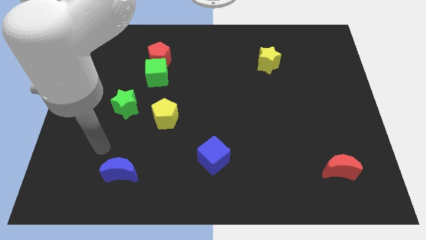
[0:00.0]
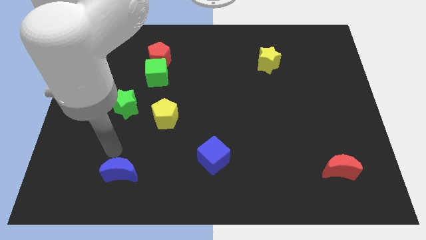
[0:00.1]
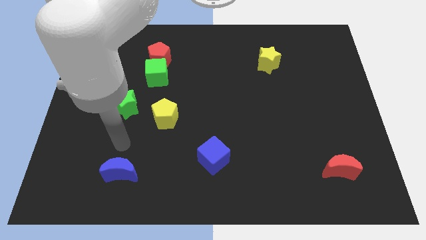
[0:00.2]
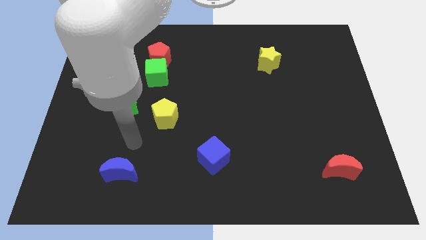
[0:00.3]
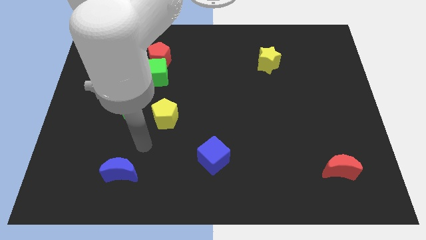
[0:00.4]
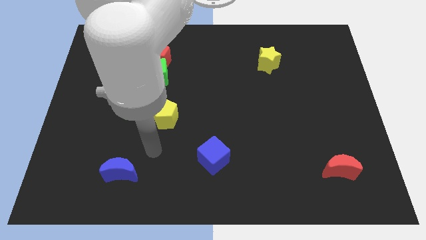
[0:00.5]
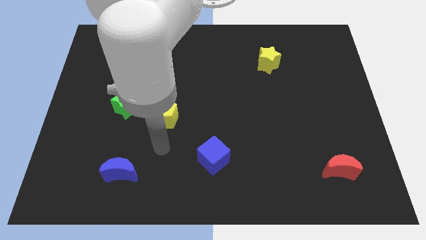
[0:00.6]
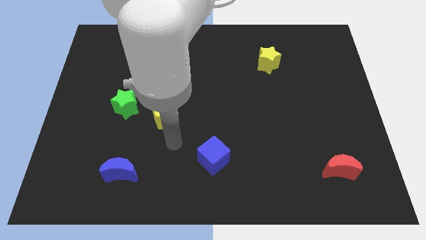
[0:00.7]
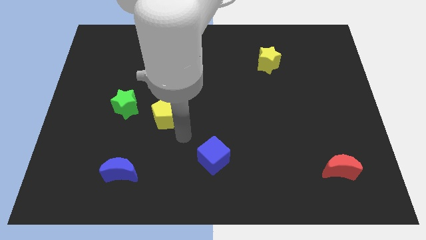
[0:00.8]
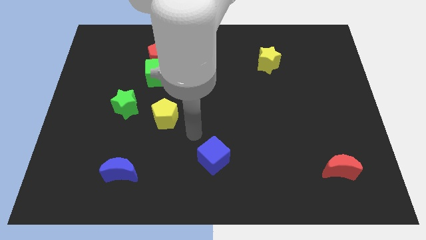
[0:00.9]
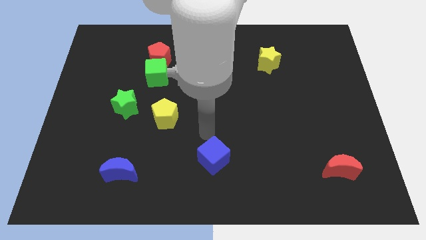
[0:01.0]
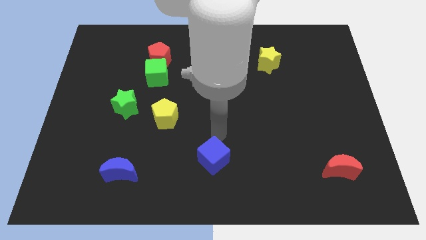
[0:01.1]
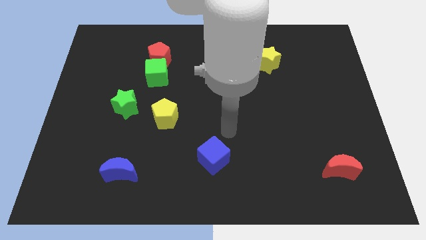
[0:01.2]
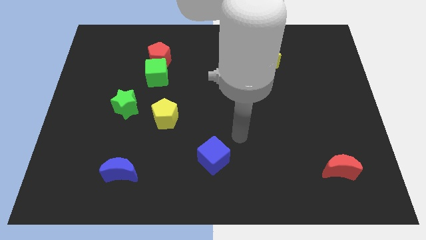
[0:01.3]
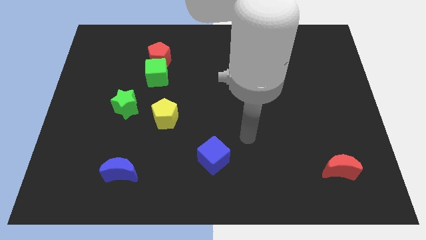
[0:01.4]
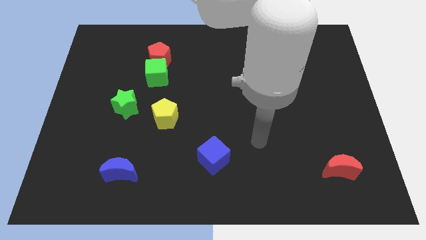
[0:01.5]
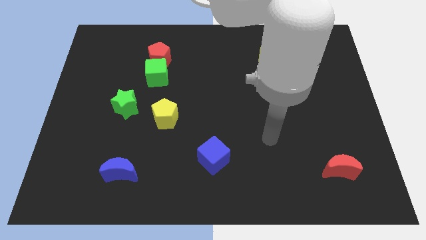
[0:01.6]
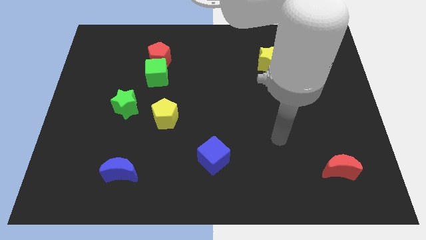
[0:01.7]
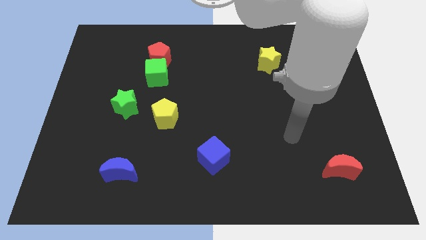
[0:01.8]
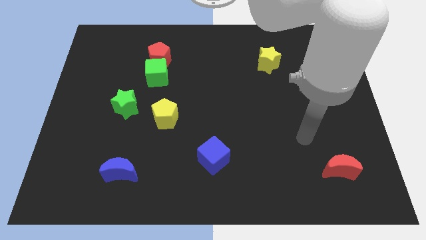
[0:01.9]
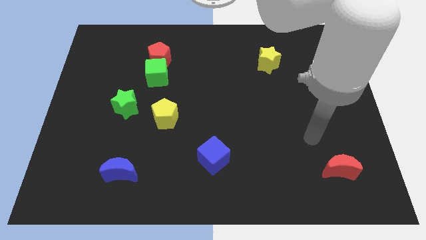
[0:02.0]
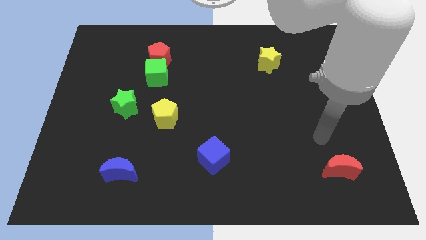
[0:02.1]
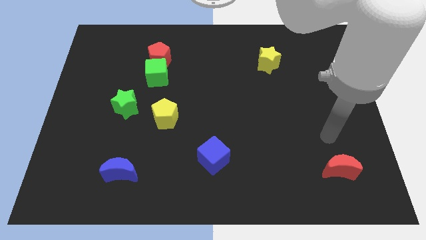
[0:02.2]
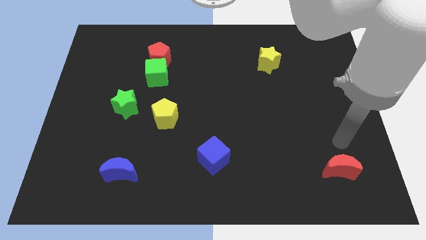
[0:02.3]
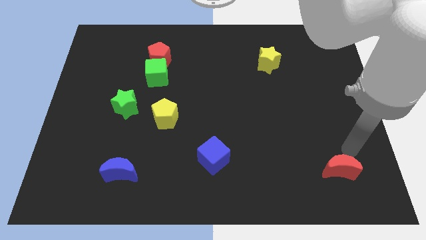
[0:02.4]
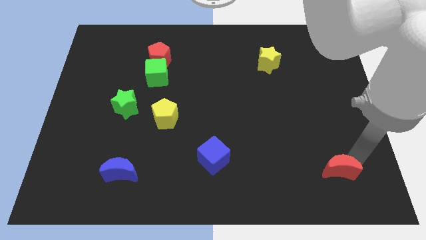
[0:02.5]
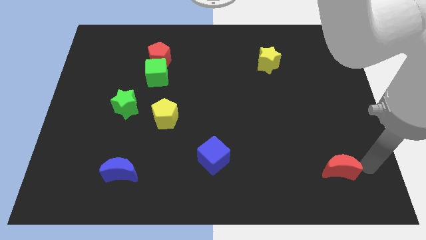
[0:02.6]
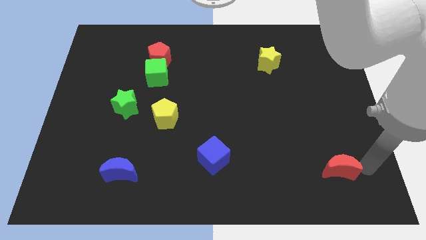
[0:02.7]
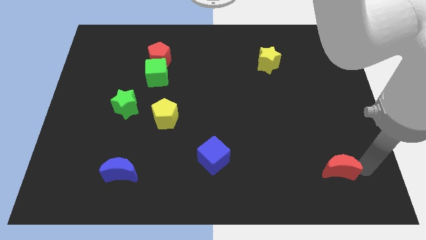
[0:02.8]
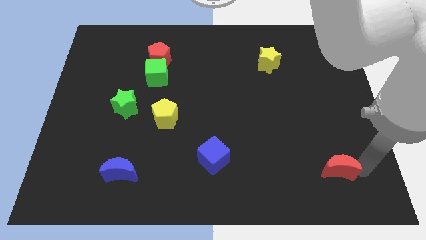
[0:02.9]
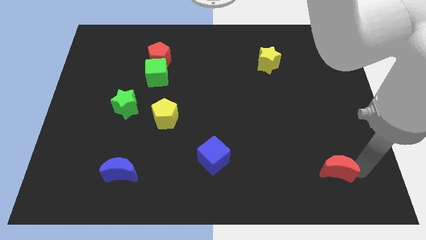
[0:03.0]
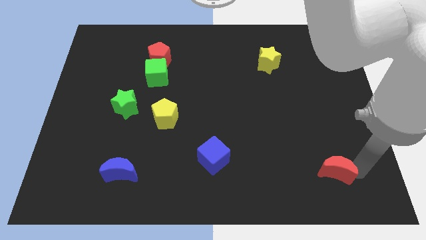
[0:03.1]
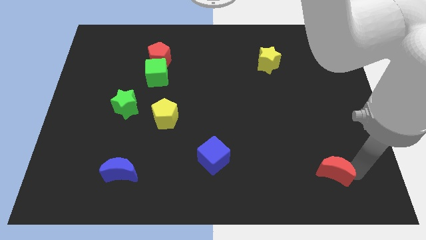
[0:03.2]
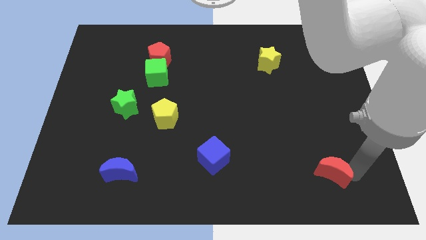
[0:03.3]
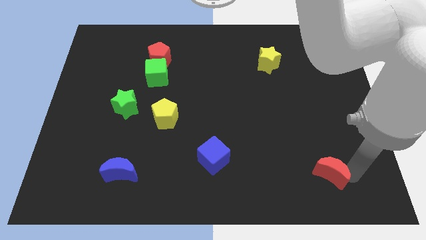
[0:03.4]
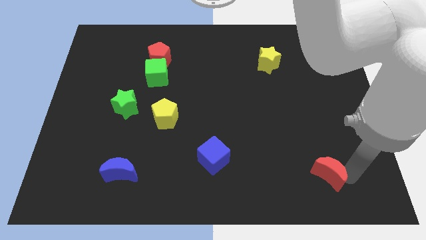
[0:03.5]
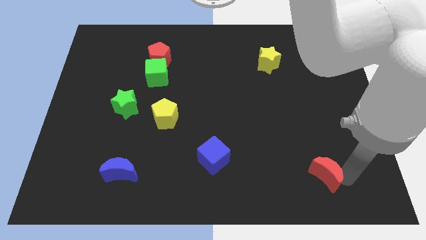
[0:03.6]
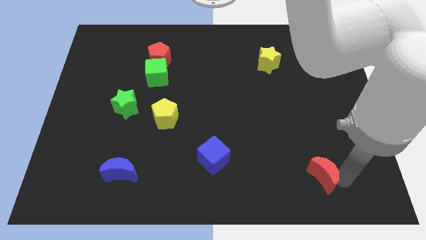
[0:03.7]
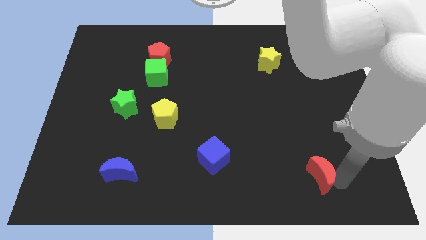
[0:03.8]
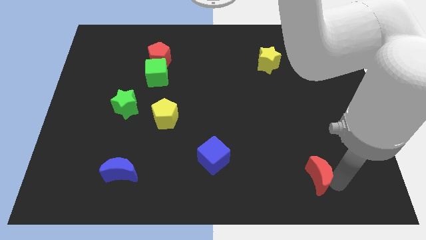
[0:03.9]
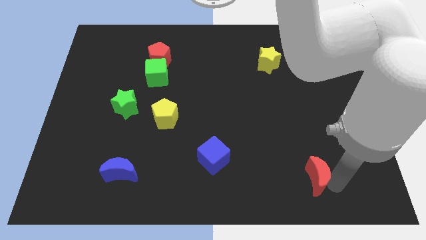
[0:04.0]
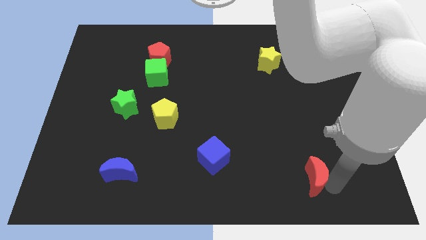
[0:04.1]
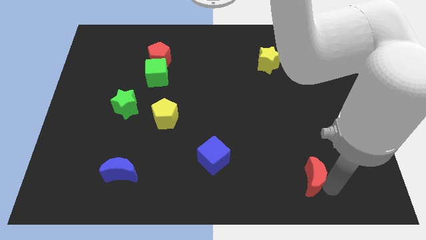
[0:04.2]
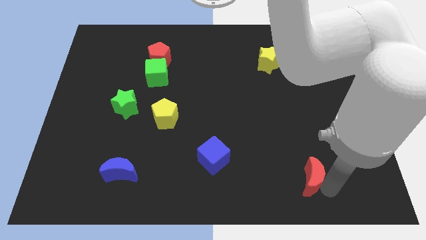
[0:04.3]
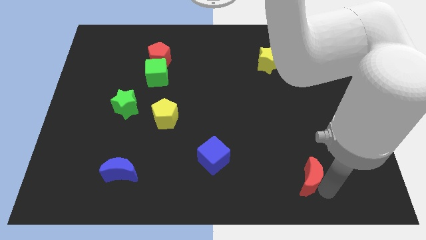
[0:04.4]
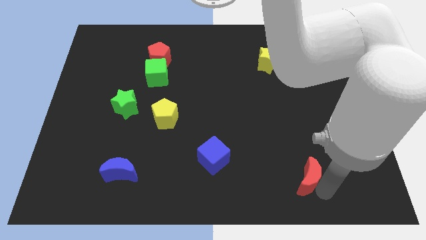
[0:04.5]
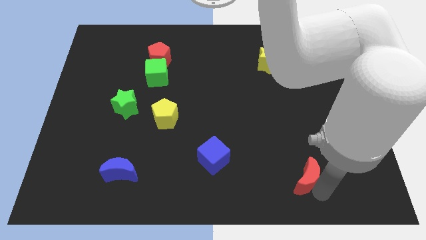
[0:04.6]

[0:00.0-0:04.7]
move the red moon slightly left

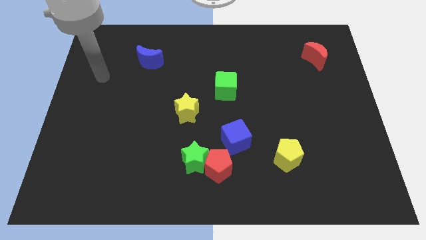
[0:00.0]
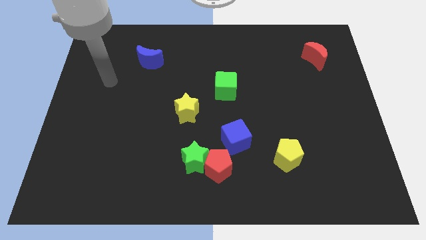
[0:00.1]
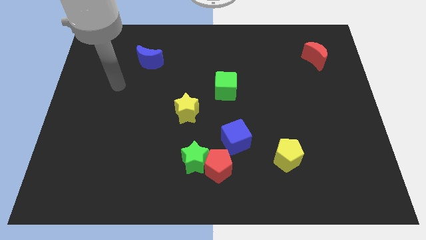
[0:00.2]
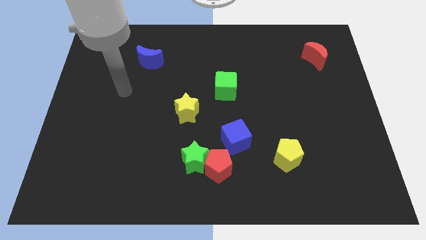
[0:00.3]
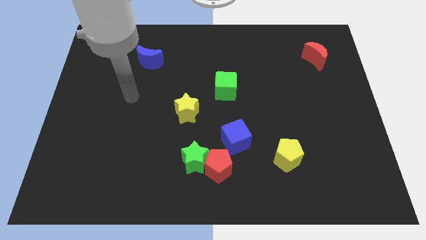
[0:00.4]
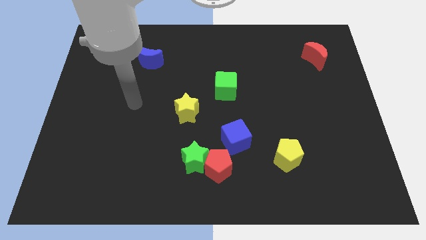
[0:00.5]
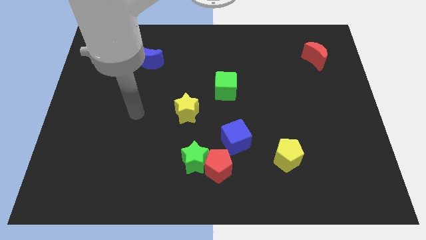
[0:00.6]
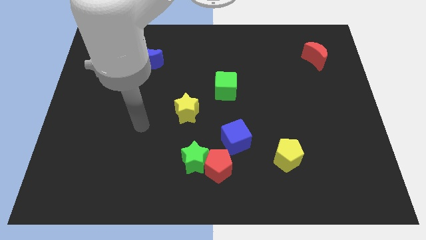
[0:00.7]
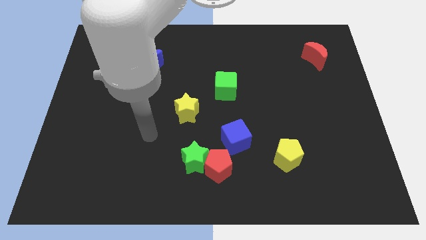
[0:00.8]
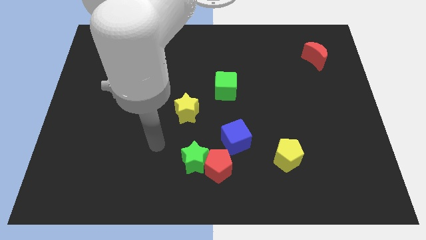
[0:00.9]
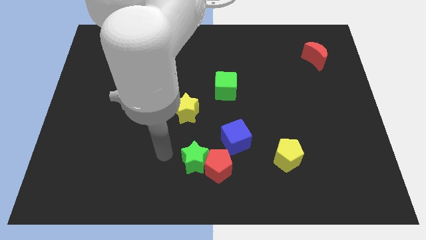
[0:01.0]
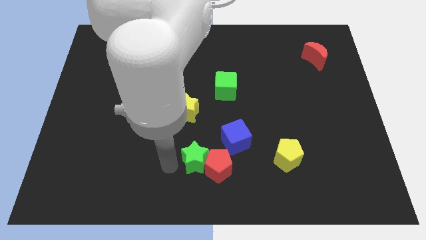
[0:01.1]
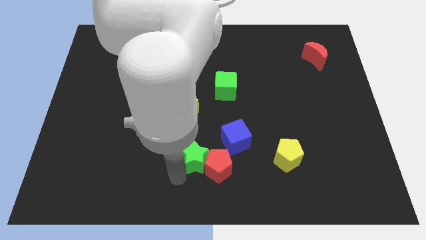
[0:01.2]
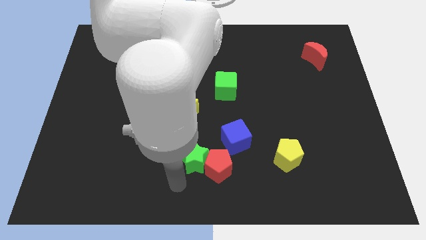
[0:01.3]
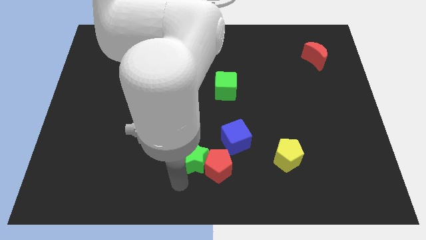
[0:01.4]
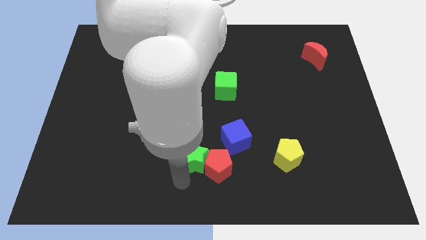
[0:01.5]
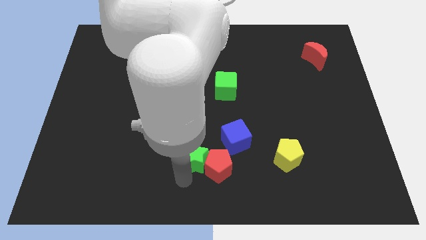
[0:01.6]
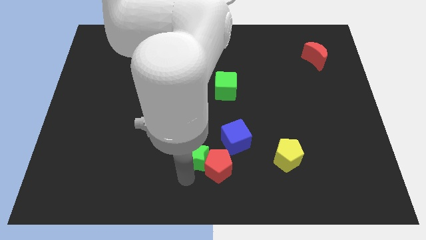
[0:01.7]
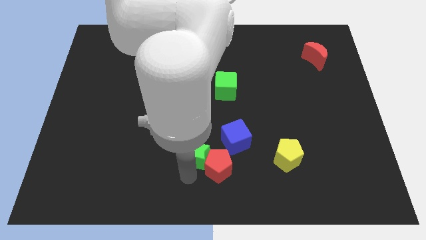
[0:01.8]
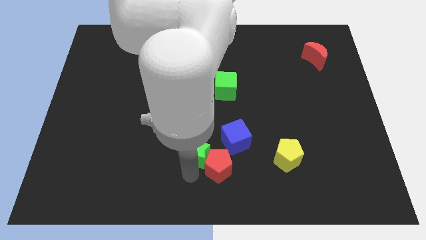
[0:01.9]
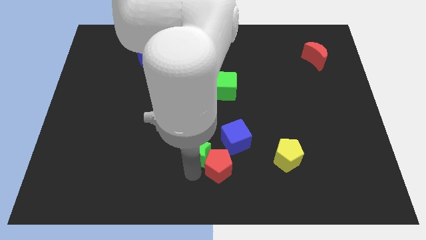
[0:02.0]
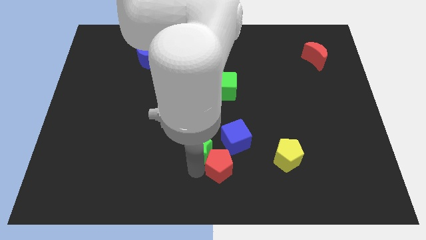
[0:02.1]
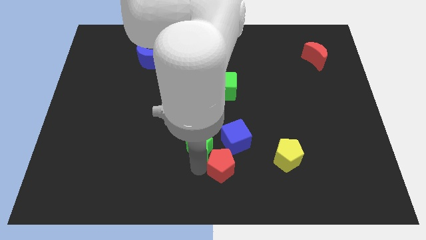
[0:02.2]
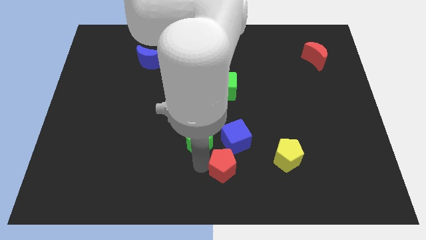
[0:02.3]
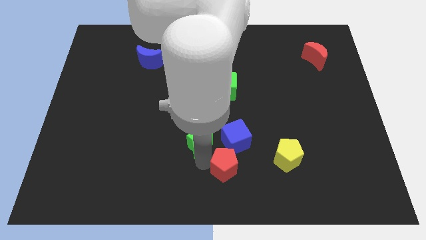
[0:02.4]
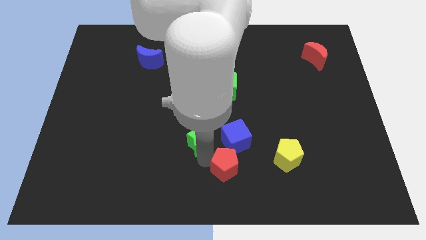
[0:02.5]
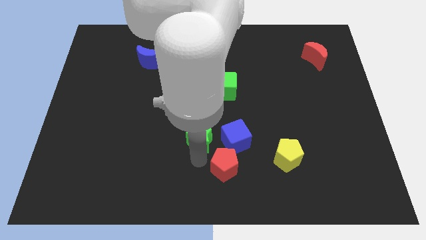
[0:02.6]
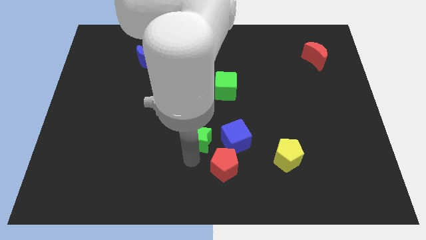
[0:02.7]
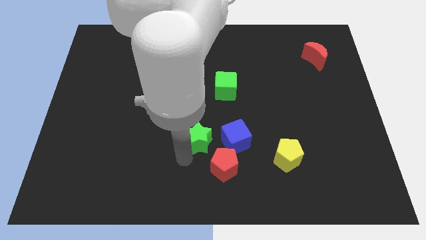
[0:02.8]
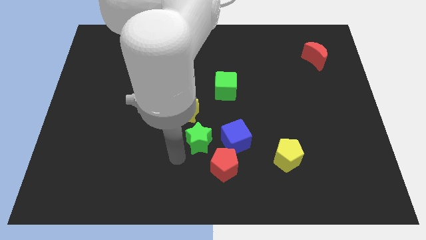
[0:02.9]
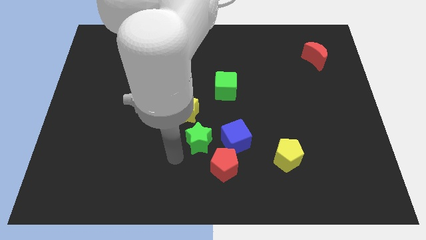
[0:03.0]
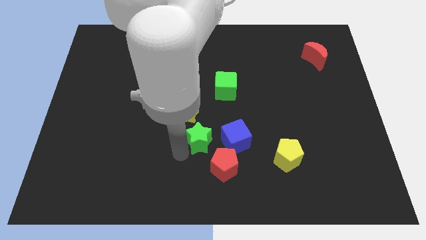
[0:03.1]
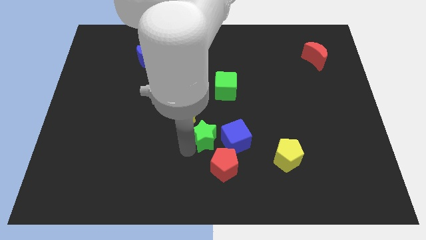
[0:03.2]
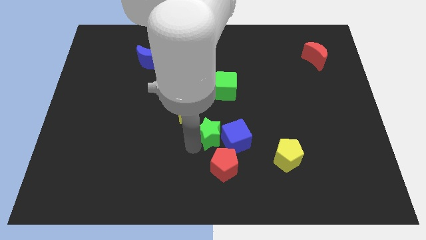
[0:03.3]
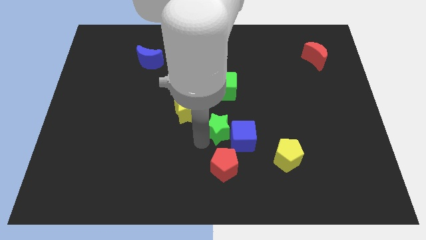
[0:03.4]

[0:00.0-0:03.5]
move the green star a bit upwards and to the right
